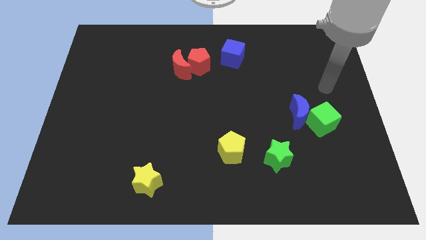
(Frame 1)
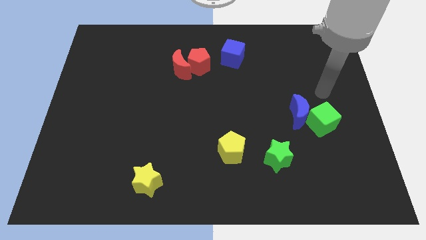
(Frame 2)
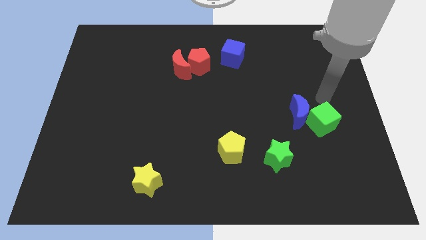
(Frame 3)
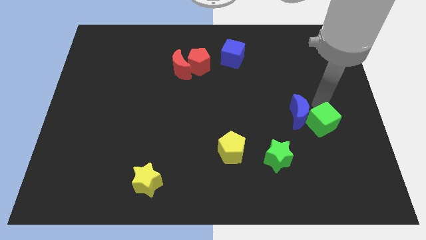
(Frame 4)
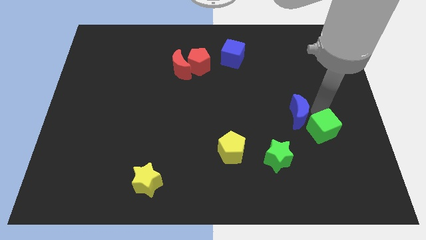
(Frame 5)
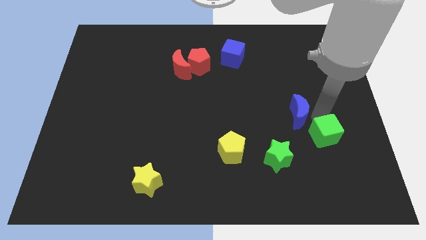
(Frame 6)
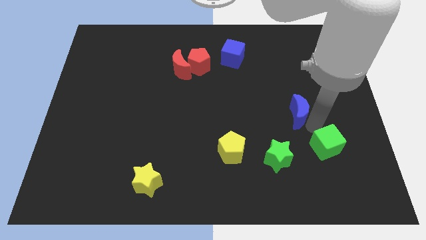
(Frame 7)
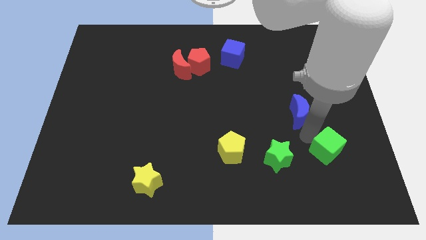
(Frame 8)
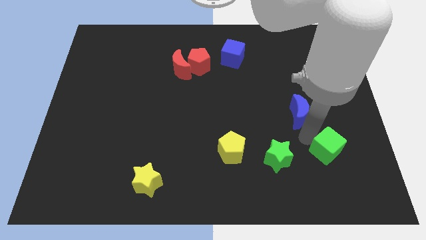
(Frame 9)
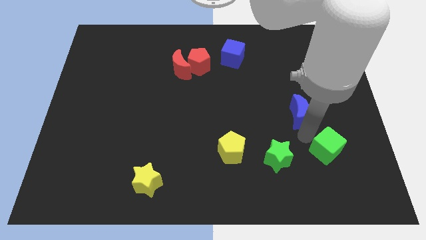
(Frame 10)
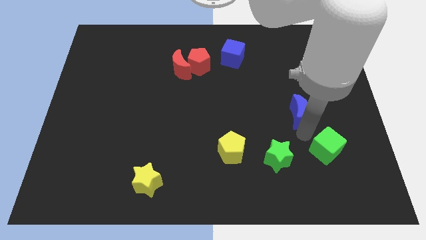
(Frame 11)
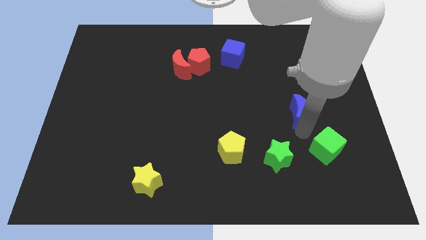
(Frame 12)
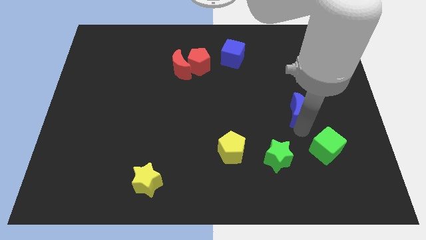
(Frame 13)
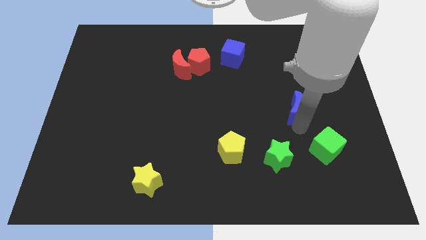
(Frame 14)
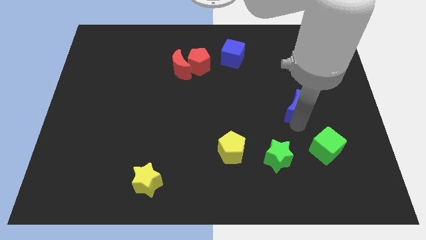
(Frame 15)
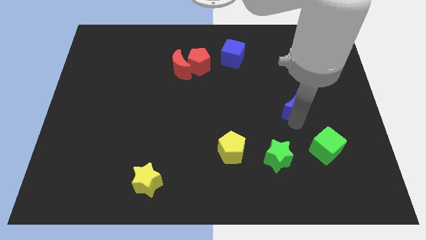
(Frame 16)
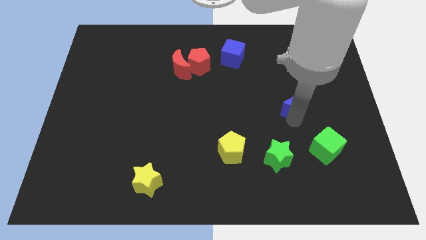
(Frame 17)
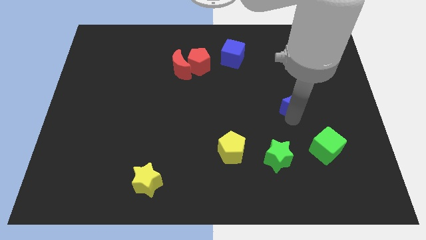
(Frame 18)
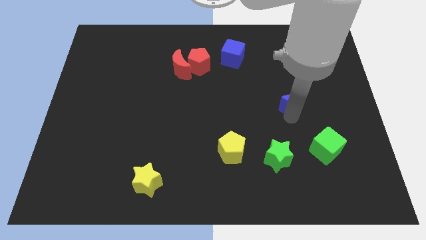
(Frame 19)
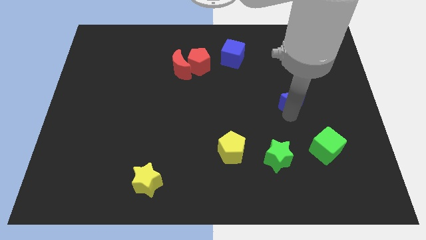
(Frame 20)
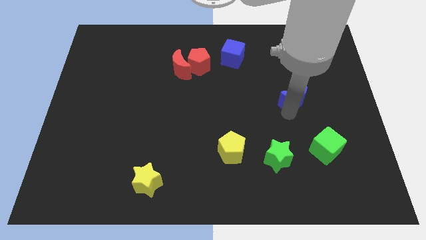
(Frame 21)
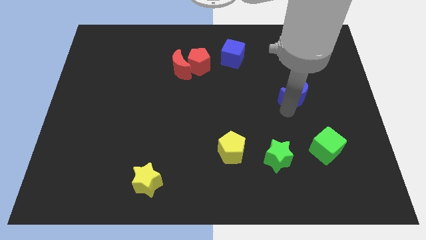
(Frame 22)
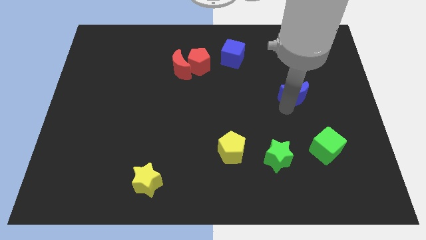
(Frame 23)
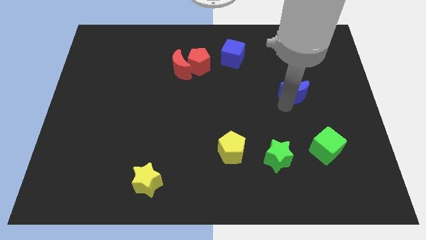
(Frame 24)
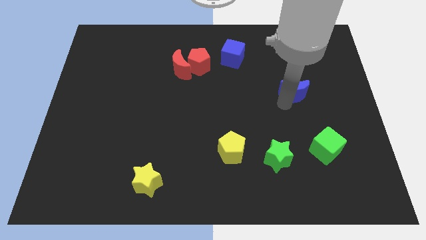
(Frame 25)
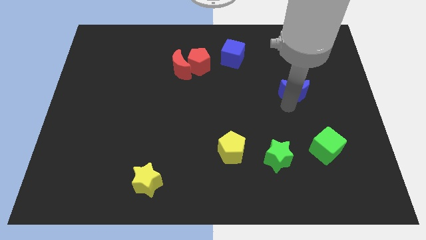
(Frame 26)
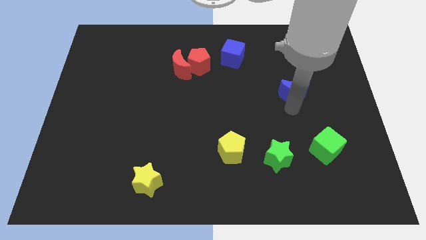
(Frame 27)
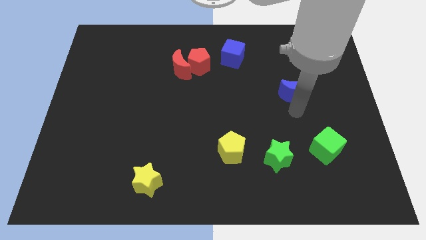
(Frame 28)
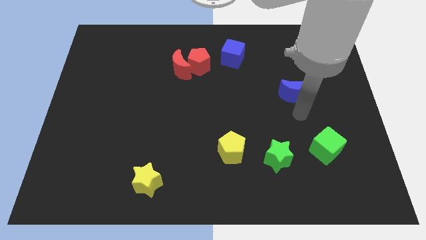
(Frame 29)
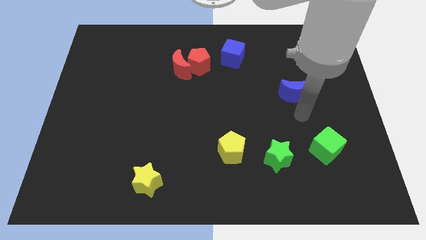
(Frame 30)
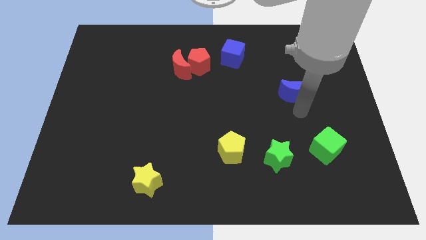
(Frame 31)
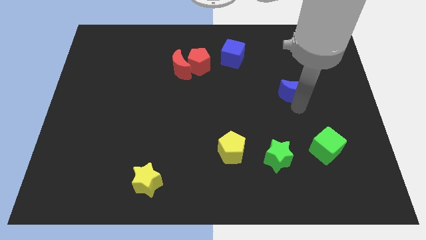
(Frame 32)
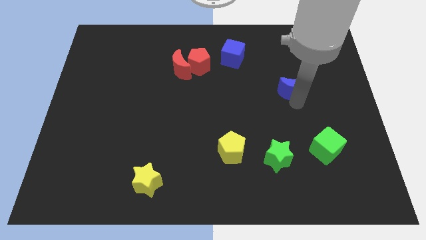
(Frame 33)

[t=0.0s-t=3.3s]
slide the blue moon somewhat upwards

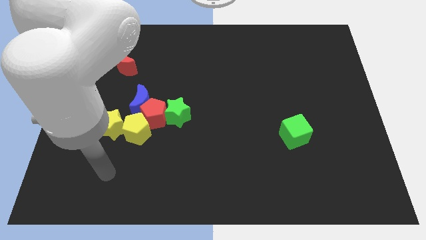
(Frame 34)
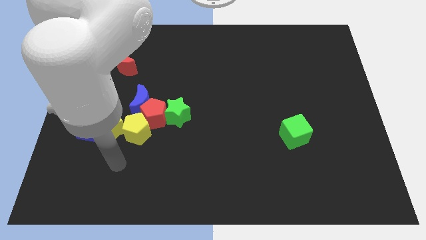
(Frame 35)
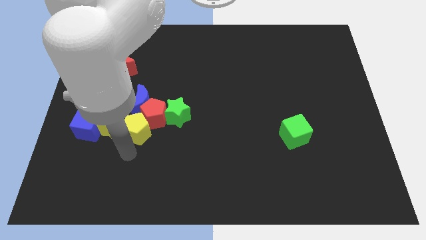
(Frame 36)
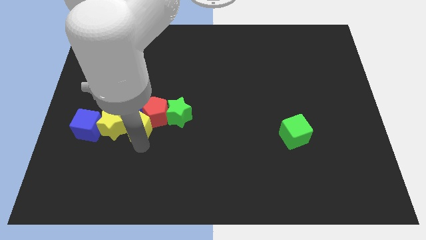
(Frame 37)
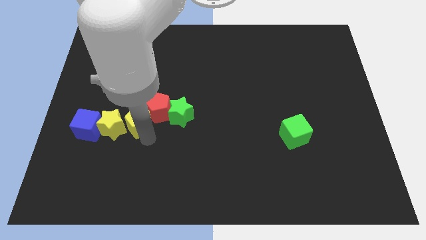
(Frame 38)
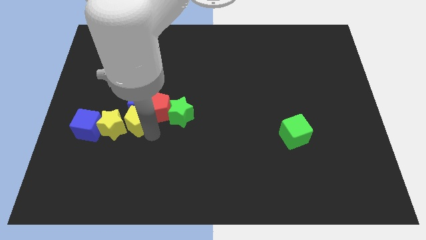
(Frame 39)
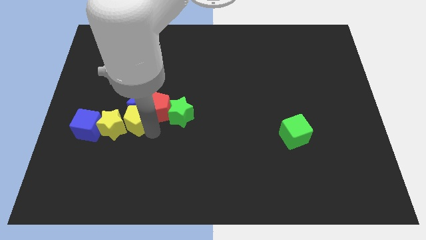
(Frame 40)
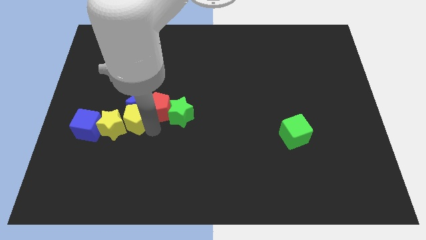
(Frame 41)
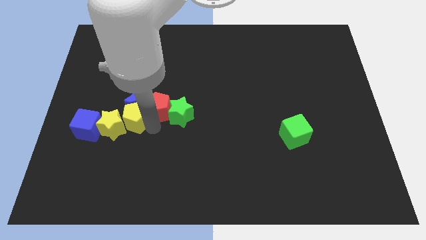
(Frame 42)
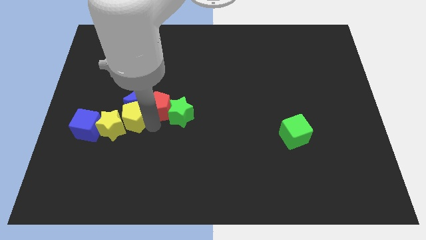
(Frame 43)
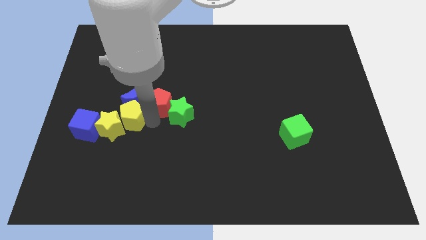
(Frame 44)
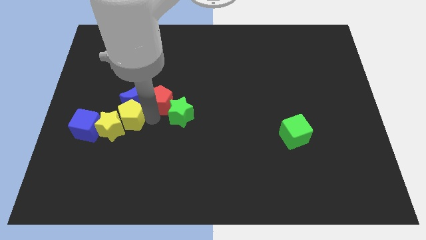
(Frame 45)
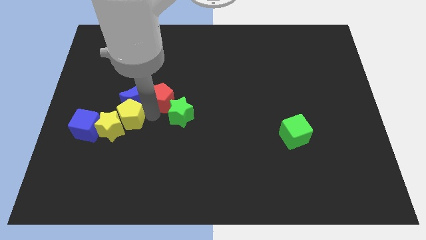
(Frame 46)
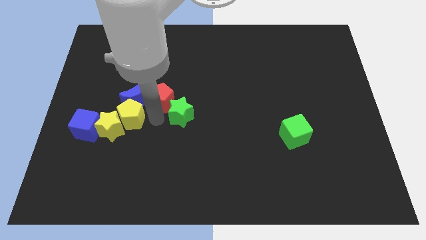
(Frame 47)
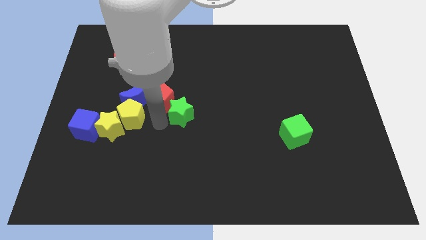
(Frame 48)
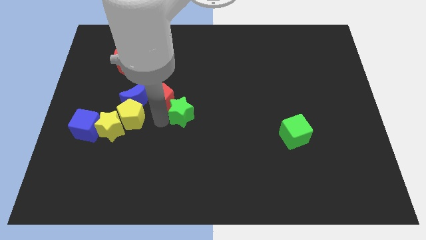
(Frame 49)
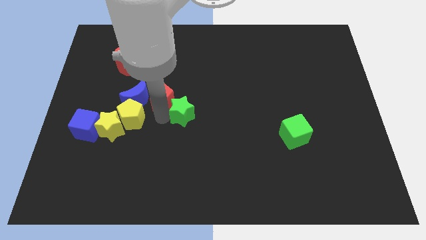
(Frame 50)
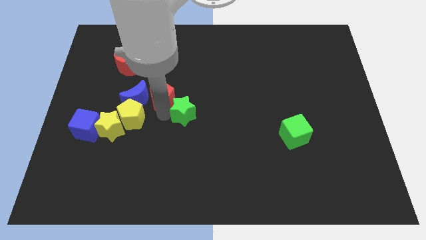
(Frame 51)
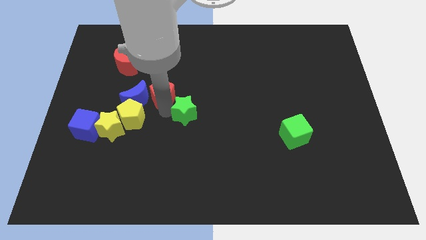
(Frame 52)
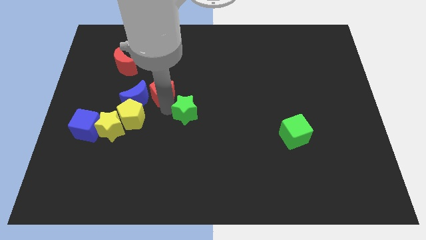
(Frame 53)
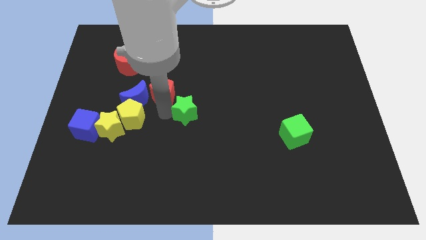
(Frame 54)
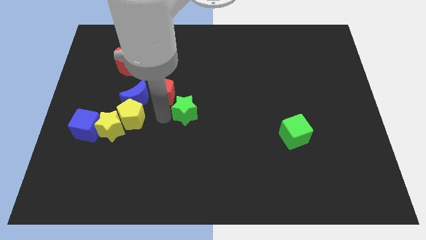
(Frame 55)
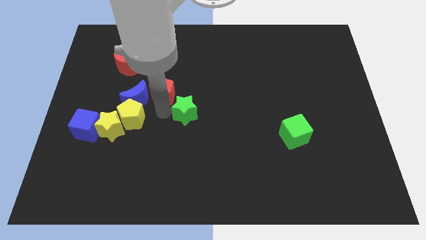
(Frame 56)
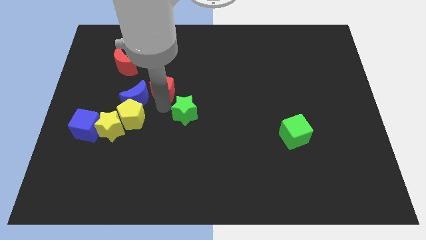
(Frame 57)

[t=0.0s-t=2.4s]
move the red pentagon slightly up

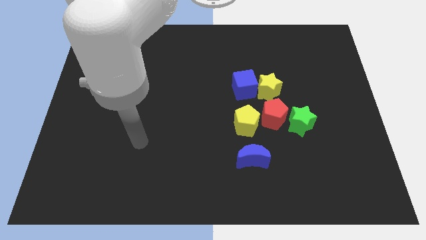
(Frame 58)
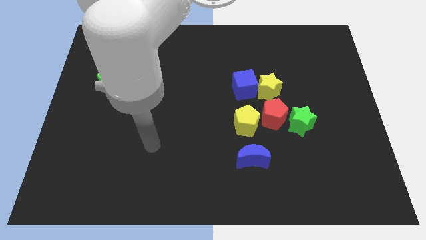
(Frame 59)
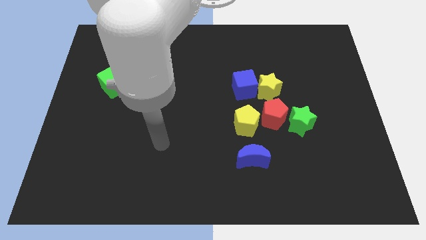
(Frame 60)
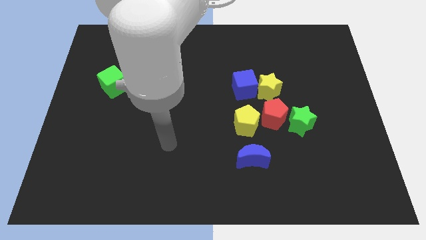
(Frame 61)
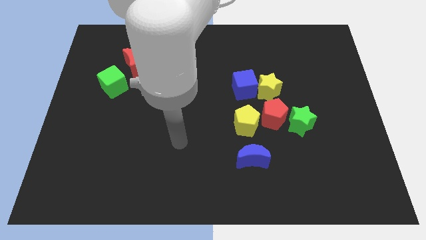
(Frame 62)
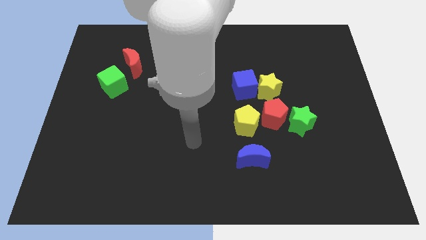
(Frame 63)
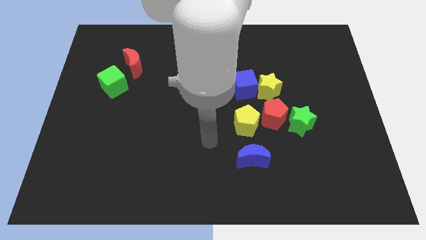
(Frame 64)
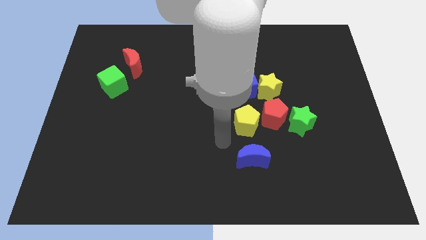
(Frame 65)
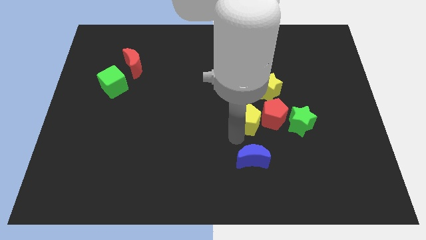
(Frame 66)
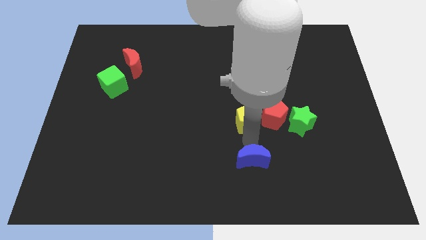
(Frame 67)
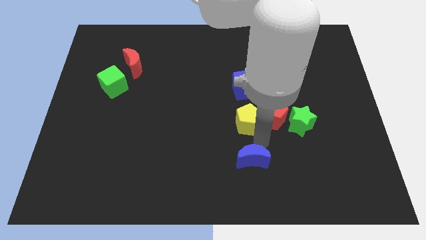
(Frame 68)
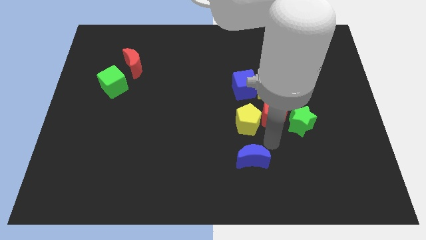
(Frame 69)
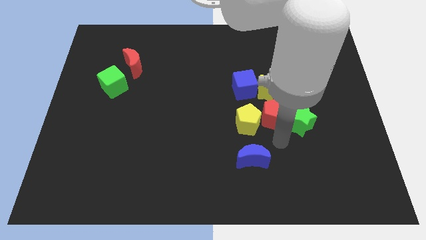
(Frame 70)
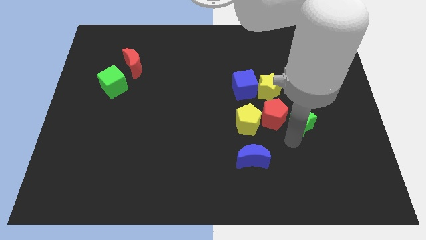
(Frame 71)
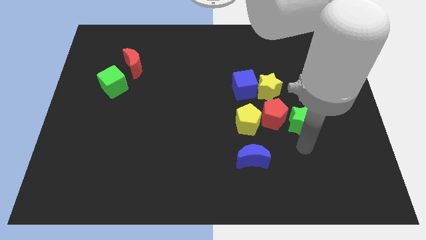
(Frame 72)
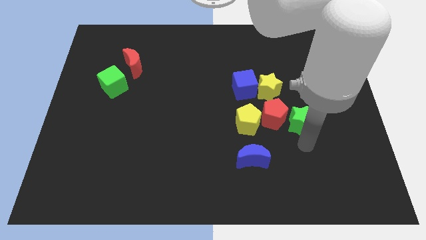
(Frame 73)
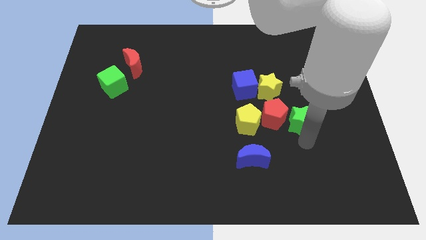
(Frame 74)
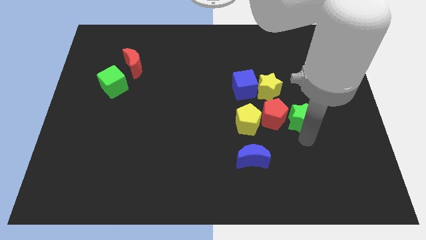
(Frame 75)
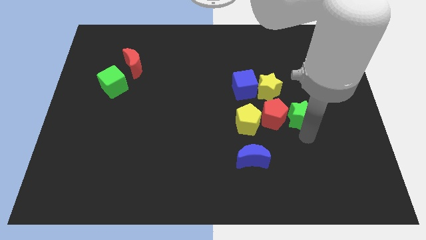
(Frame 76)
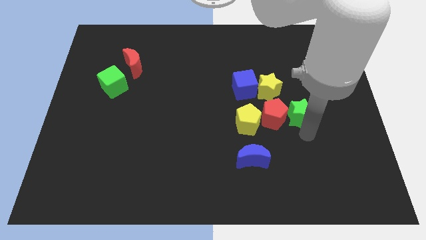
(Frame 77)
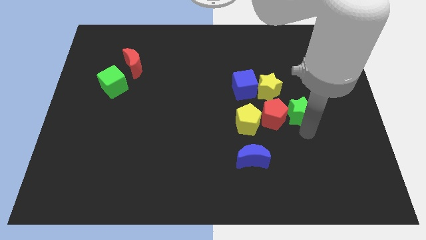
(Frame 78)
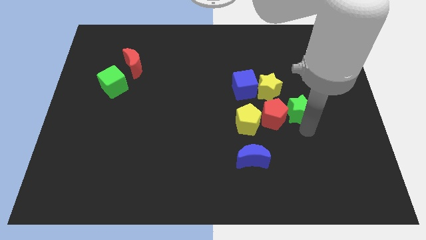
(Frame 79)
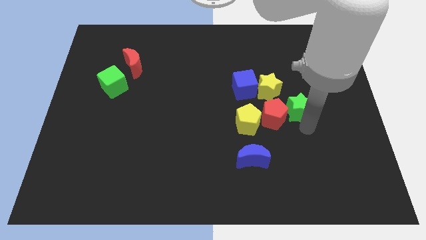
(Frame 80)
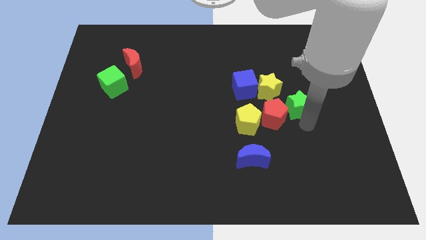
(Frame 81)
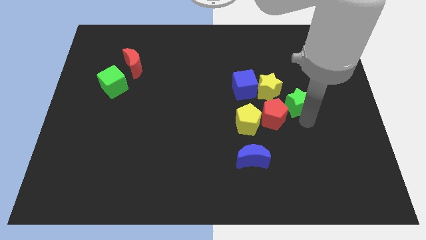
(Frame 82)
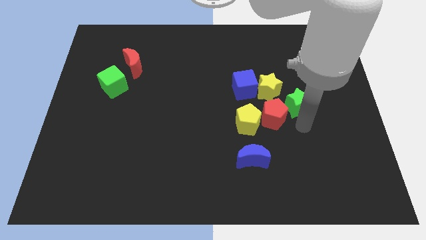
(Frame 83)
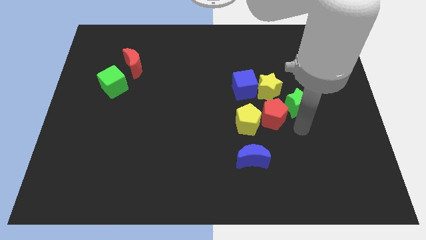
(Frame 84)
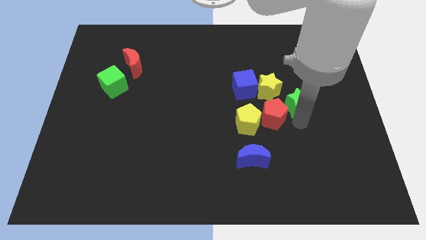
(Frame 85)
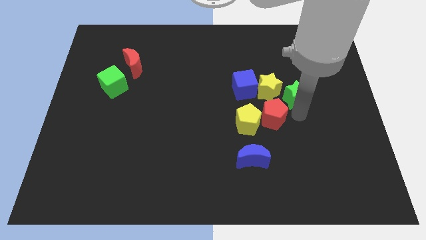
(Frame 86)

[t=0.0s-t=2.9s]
push the green star slightly up
